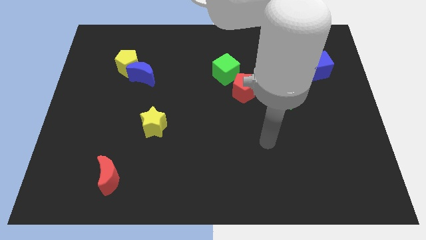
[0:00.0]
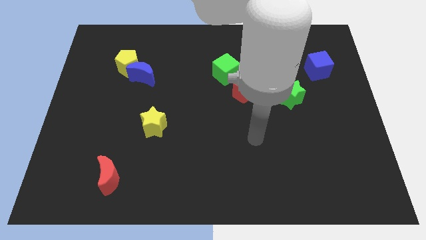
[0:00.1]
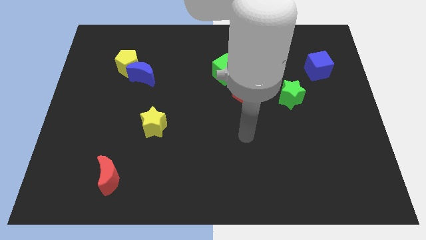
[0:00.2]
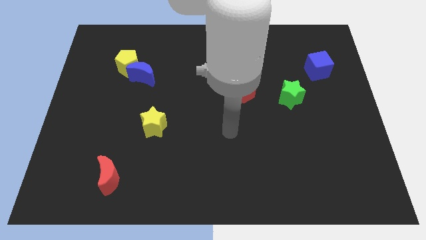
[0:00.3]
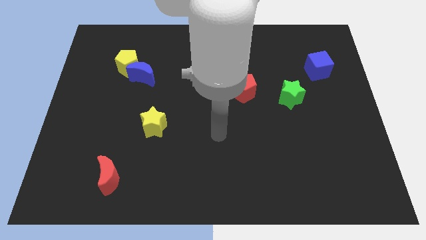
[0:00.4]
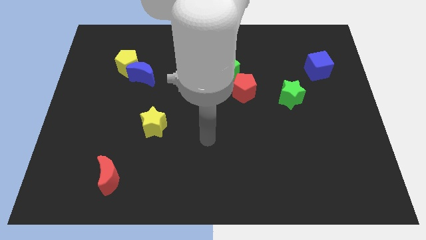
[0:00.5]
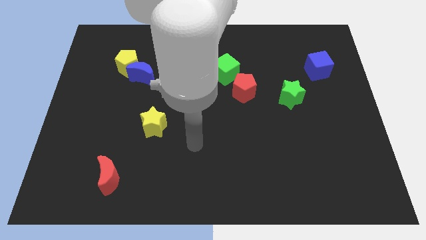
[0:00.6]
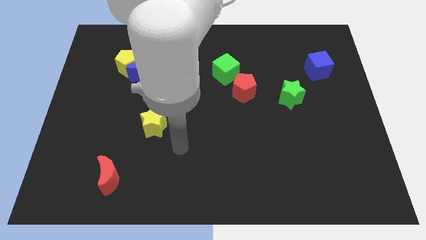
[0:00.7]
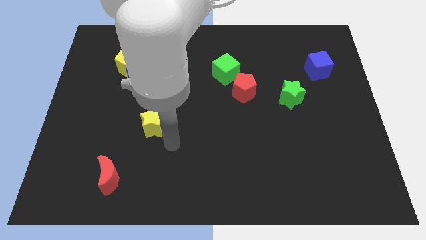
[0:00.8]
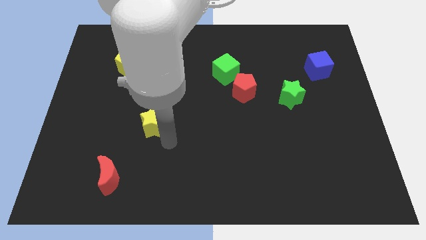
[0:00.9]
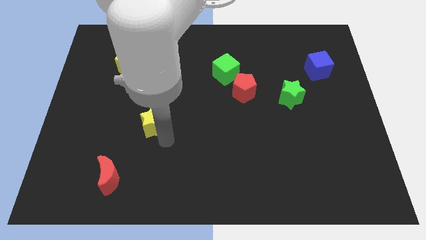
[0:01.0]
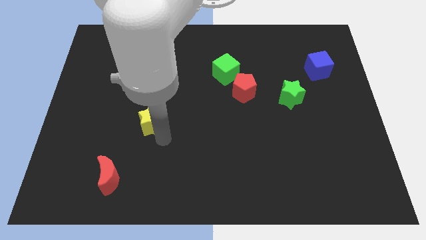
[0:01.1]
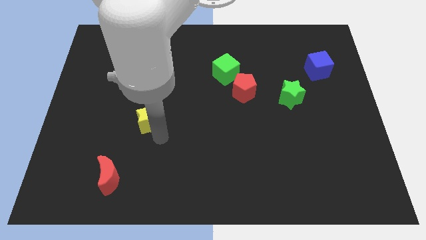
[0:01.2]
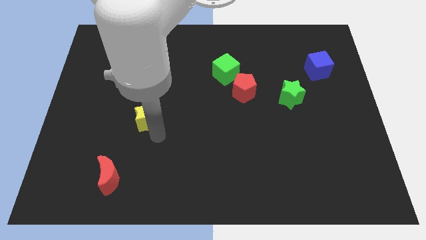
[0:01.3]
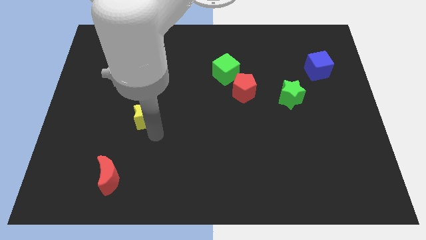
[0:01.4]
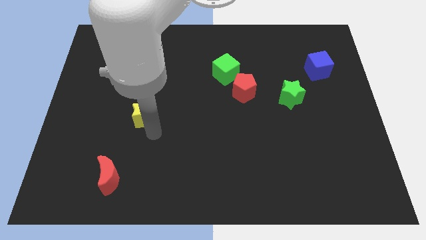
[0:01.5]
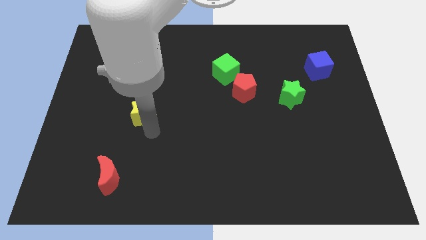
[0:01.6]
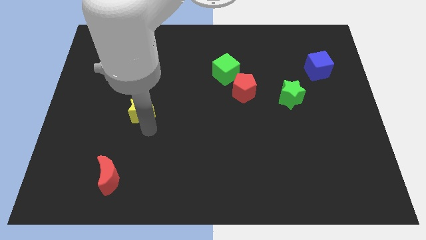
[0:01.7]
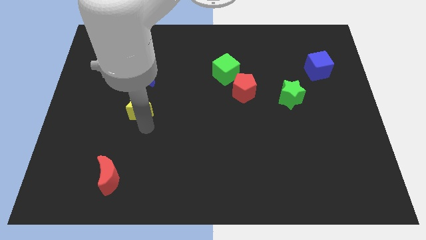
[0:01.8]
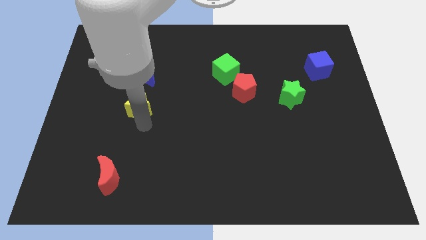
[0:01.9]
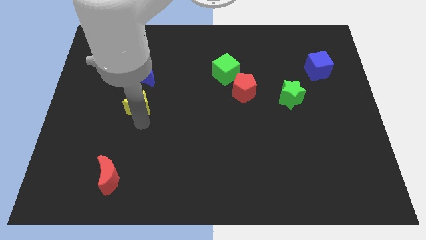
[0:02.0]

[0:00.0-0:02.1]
slightly slide the yellow star up and then left

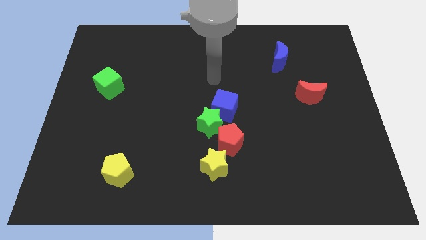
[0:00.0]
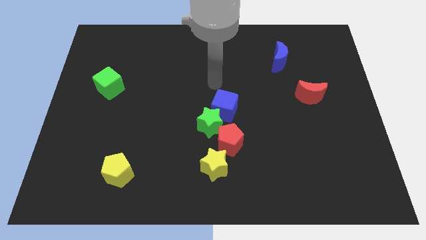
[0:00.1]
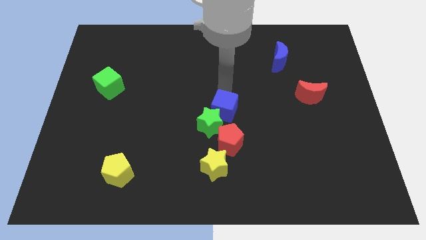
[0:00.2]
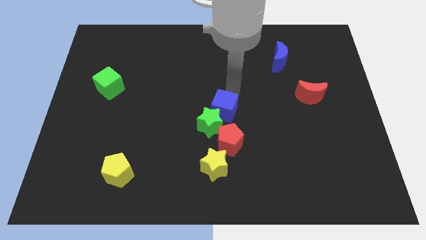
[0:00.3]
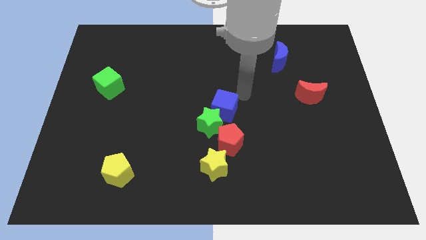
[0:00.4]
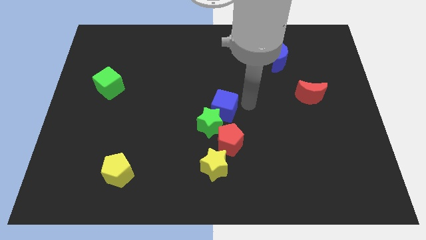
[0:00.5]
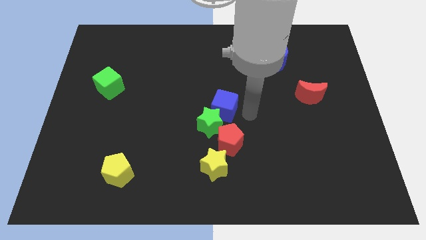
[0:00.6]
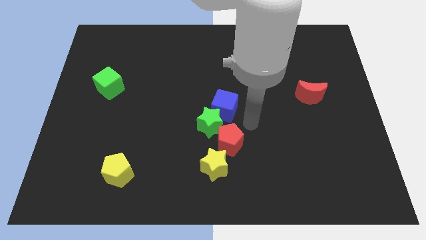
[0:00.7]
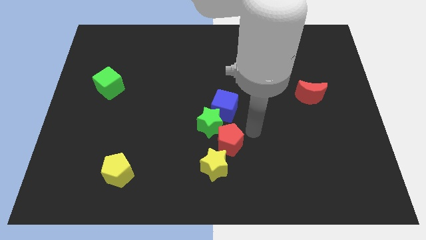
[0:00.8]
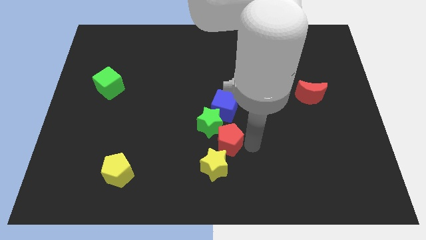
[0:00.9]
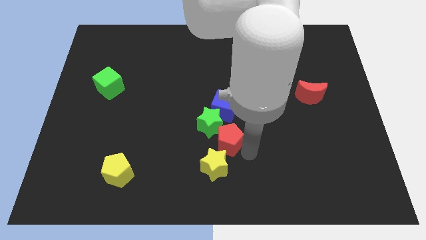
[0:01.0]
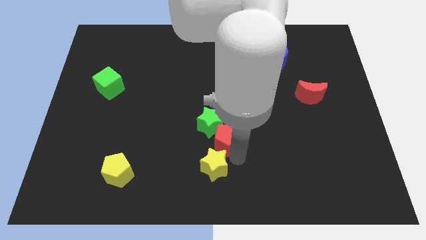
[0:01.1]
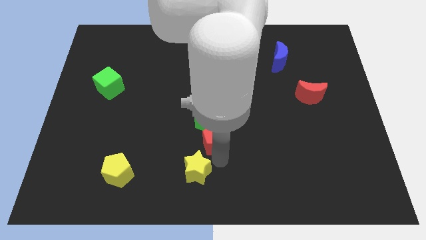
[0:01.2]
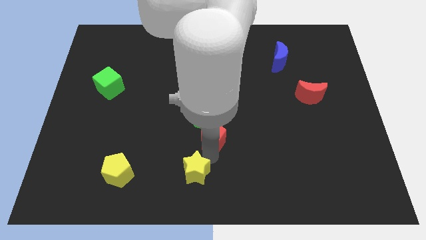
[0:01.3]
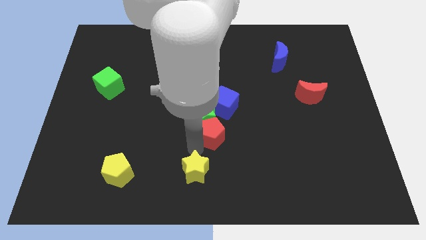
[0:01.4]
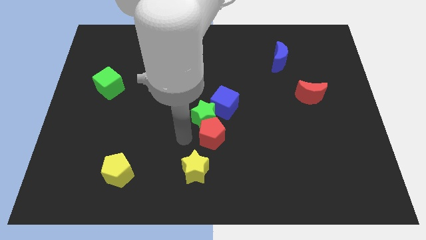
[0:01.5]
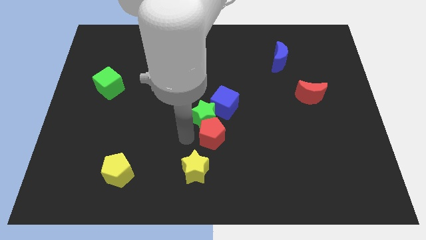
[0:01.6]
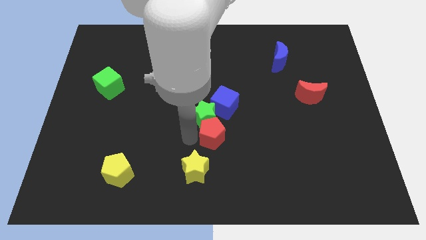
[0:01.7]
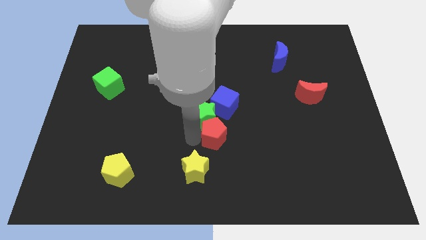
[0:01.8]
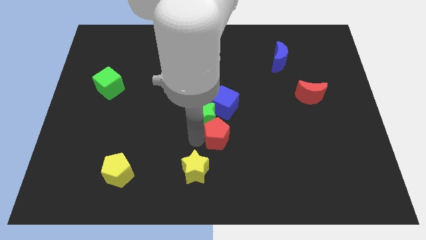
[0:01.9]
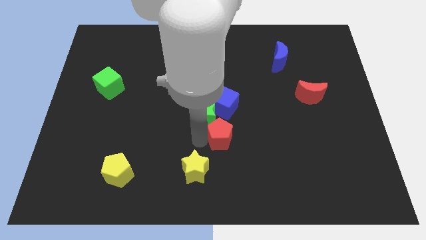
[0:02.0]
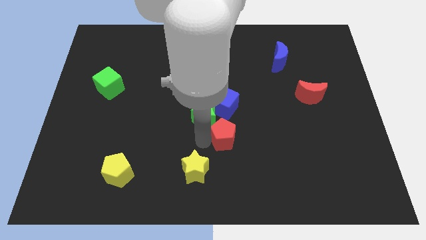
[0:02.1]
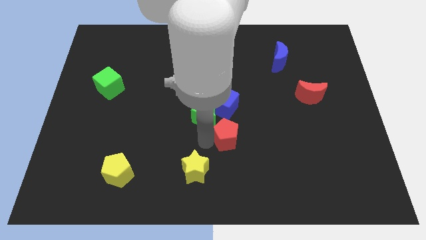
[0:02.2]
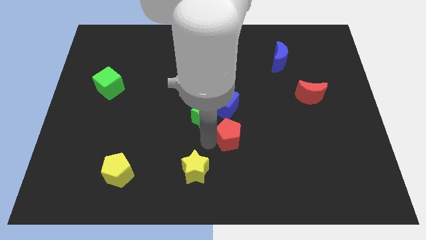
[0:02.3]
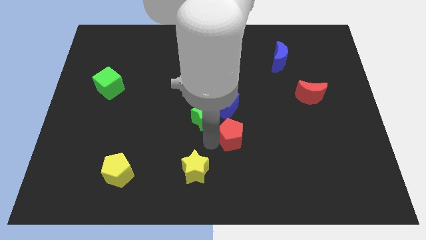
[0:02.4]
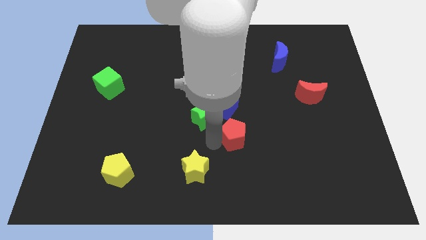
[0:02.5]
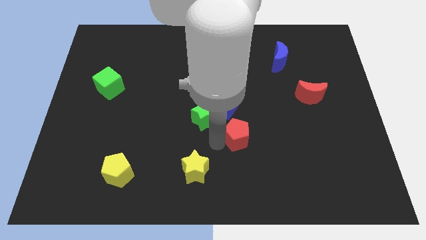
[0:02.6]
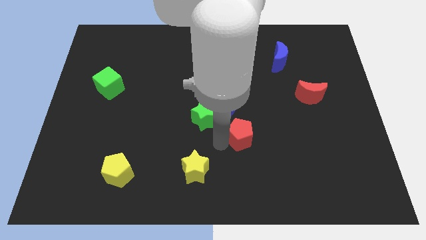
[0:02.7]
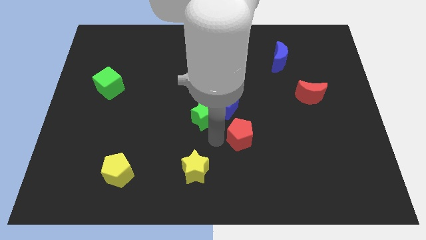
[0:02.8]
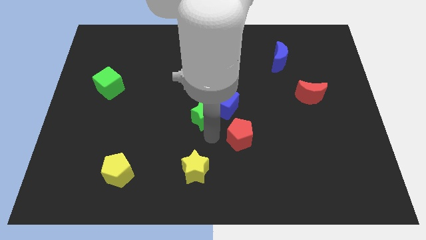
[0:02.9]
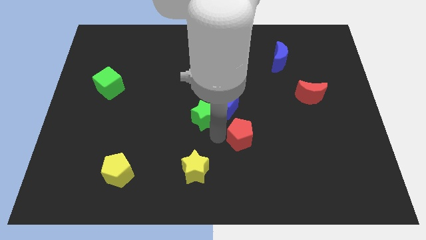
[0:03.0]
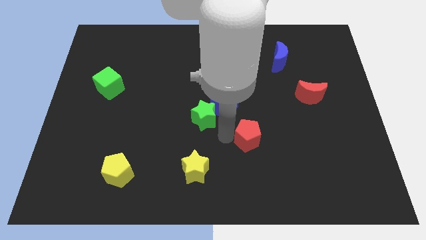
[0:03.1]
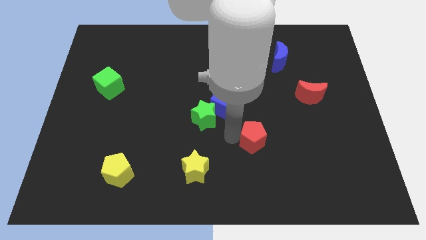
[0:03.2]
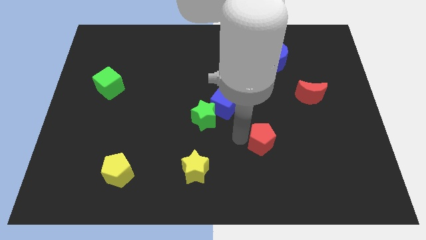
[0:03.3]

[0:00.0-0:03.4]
slightly move the red pentagon to the right

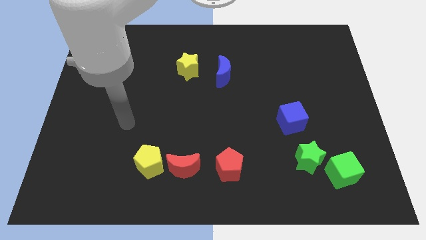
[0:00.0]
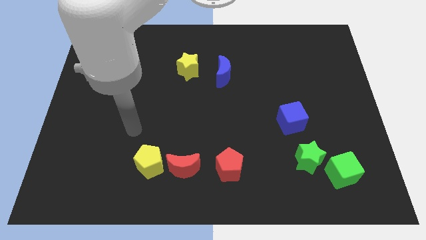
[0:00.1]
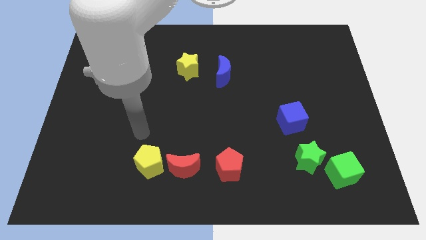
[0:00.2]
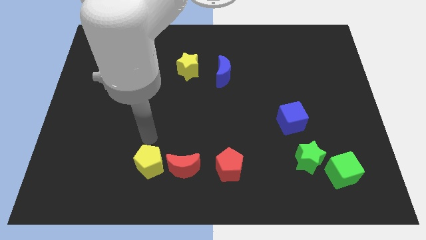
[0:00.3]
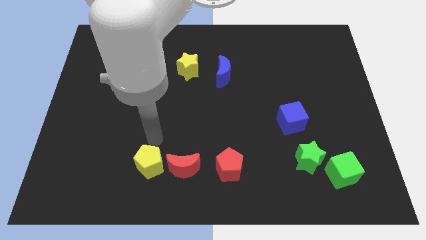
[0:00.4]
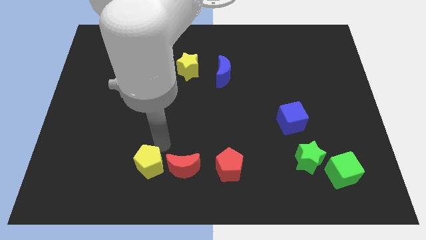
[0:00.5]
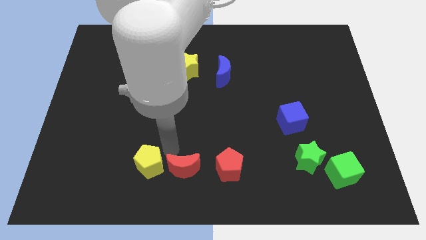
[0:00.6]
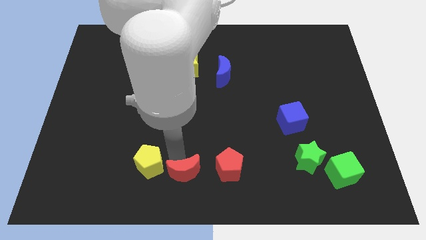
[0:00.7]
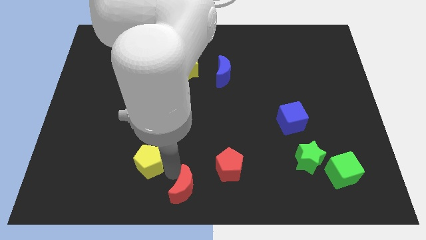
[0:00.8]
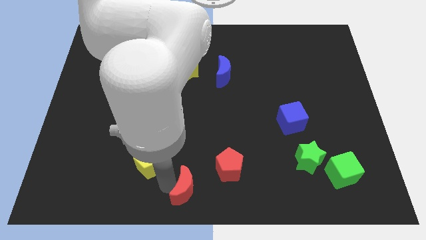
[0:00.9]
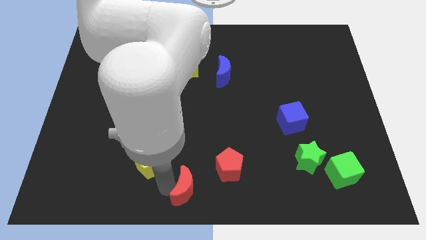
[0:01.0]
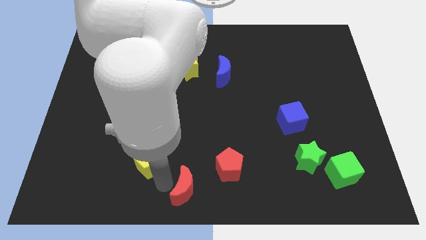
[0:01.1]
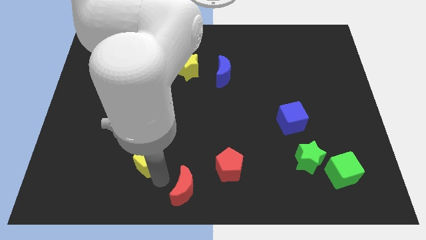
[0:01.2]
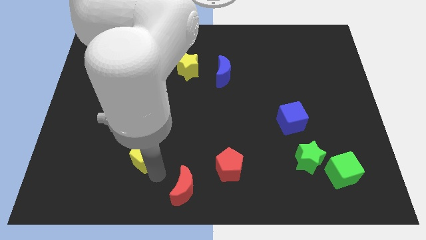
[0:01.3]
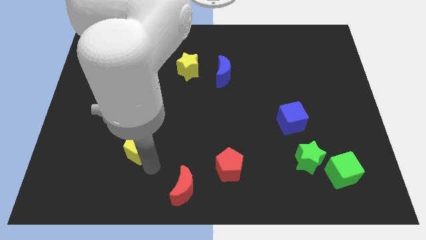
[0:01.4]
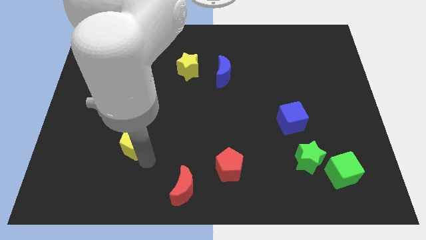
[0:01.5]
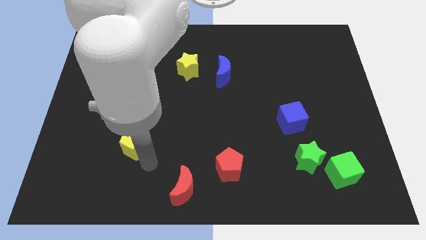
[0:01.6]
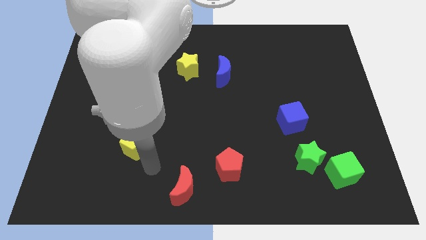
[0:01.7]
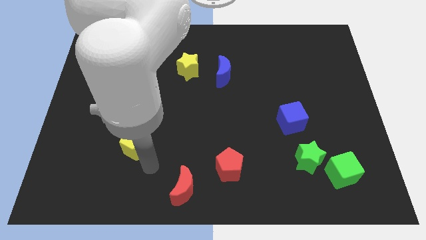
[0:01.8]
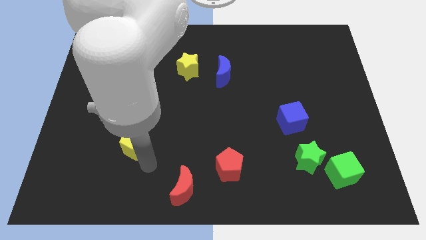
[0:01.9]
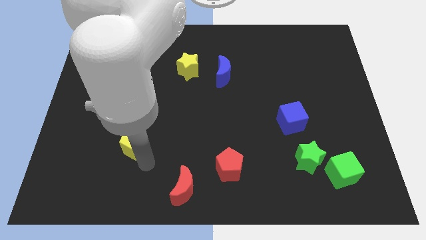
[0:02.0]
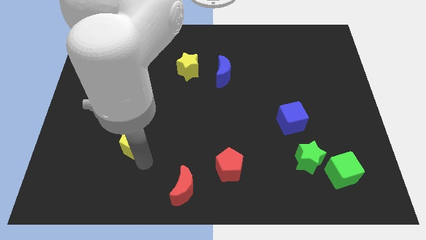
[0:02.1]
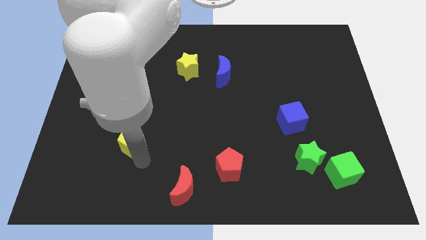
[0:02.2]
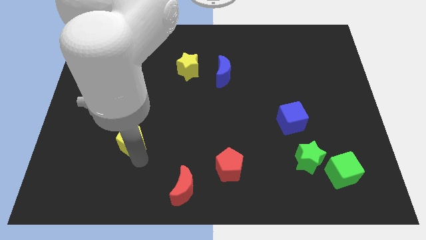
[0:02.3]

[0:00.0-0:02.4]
move the yellow pentagon a bit upwards and then left

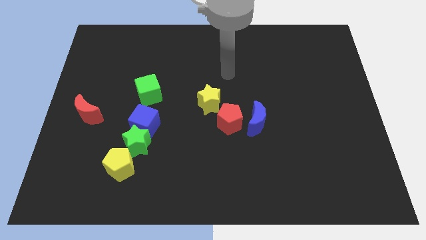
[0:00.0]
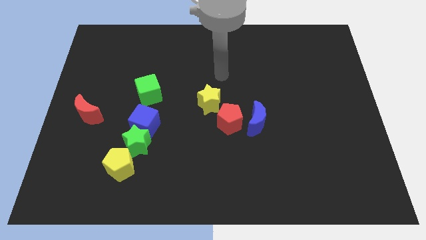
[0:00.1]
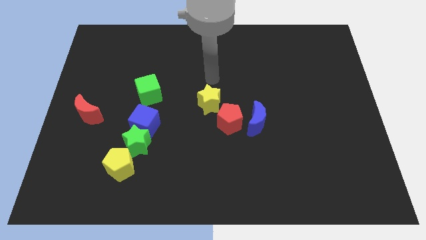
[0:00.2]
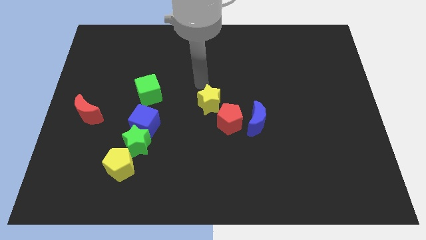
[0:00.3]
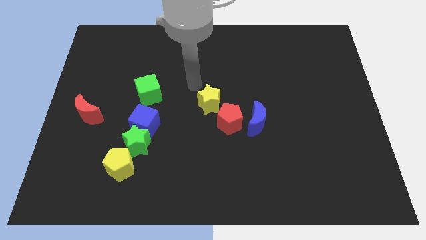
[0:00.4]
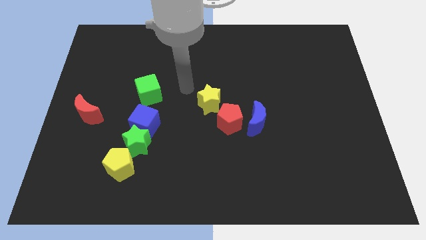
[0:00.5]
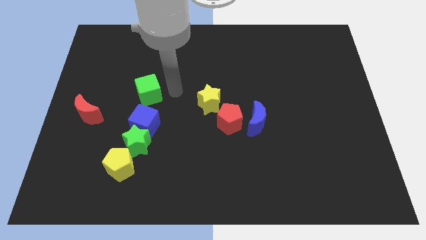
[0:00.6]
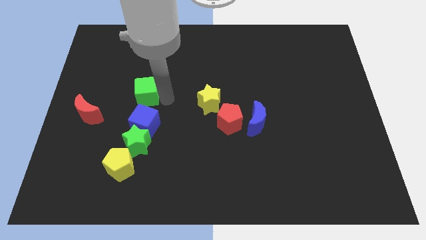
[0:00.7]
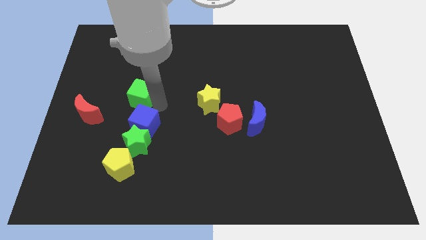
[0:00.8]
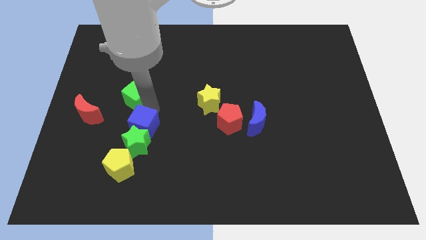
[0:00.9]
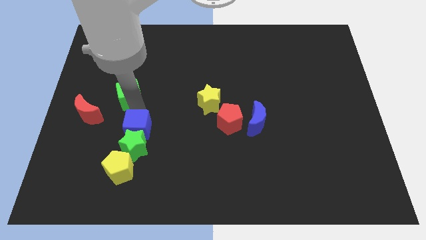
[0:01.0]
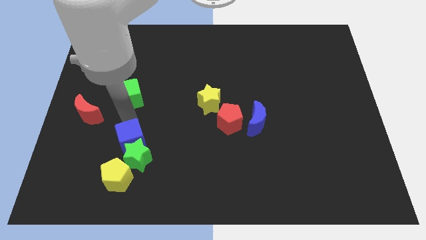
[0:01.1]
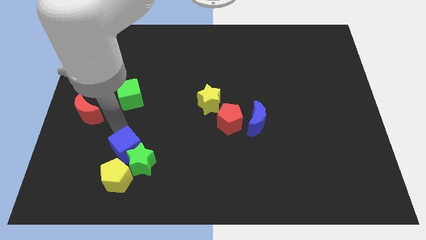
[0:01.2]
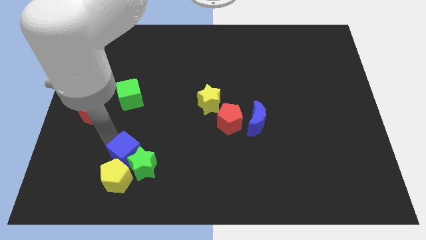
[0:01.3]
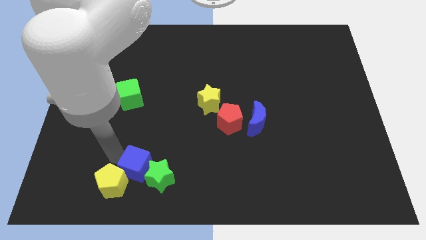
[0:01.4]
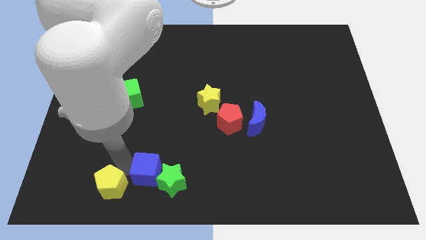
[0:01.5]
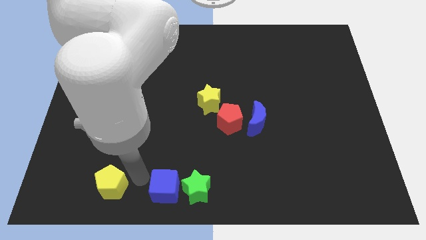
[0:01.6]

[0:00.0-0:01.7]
move the green star to the right slightly
